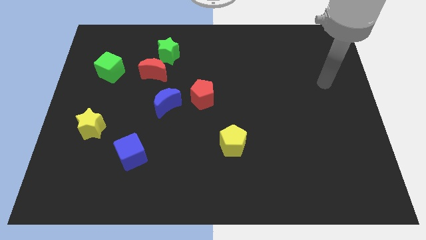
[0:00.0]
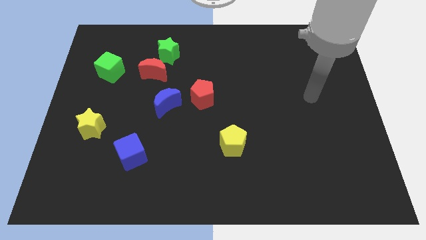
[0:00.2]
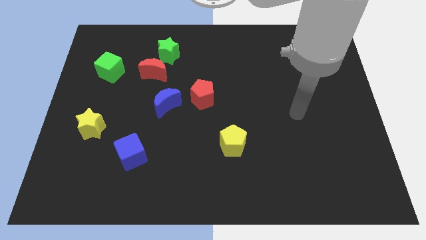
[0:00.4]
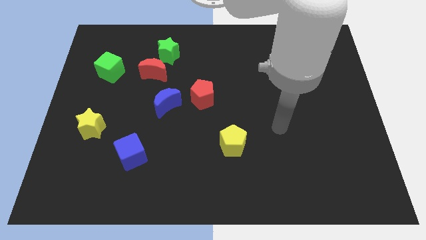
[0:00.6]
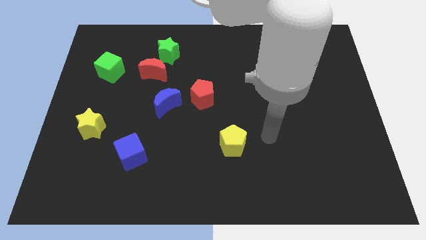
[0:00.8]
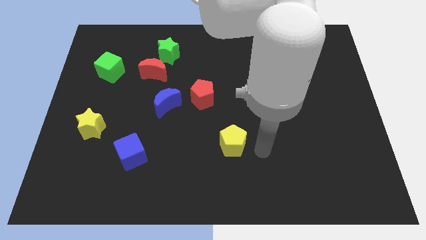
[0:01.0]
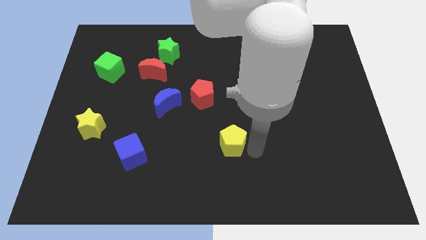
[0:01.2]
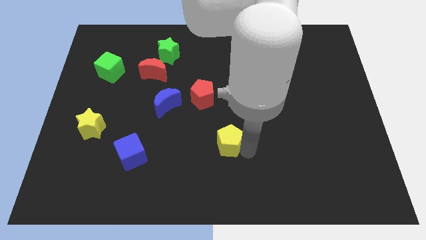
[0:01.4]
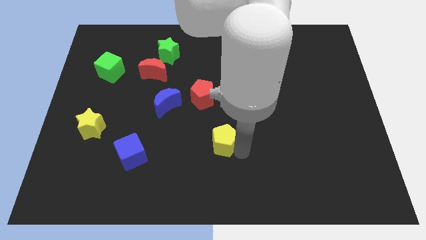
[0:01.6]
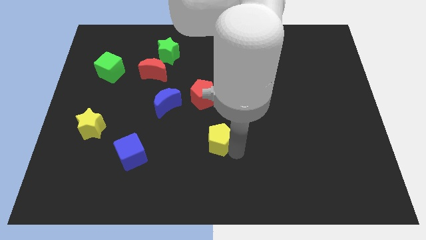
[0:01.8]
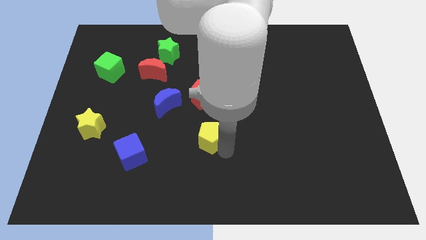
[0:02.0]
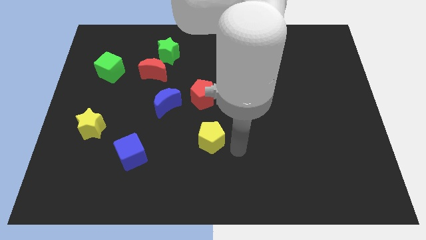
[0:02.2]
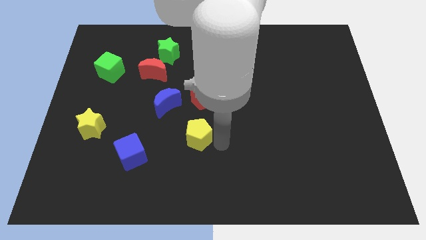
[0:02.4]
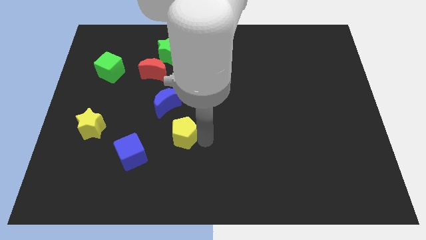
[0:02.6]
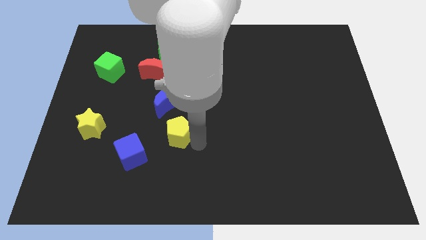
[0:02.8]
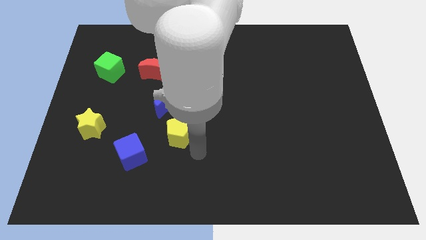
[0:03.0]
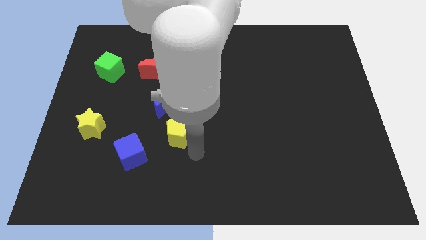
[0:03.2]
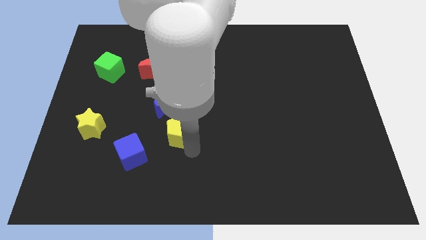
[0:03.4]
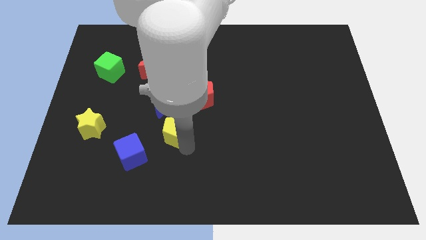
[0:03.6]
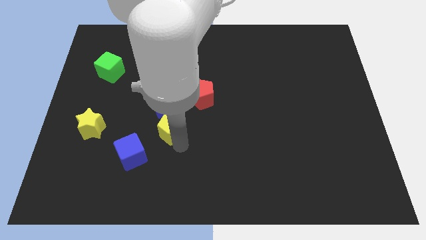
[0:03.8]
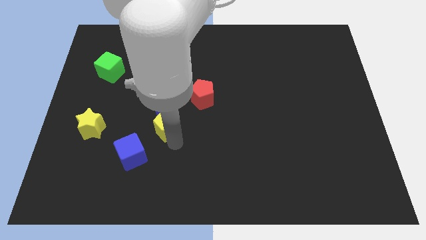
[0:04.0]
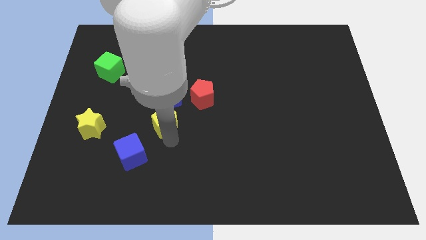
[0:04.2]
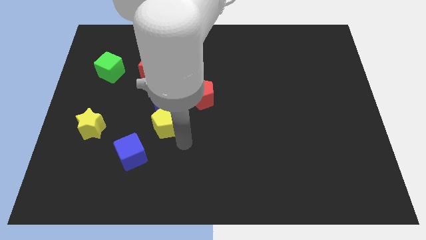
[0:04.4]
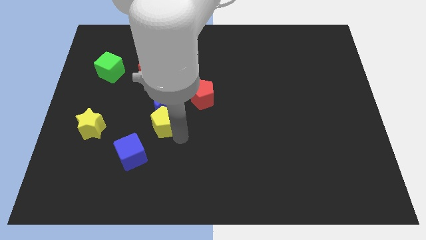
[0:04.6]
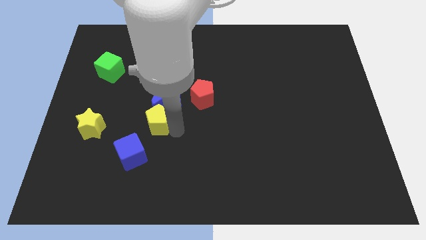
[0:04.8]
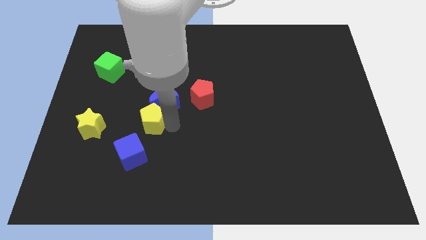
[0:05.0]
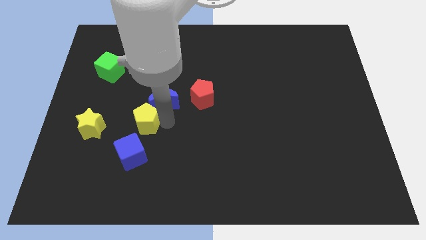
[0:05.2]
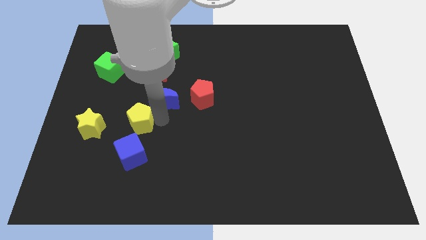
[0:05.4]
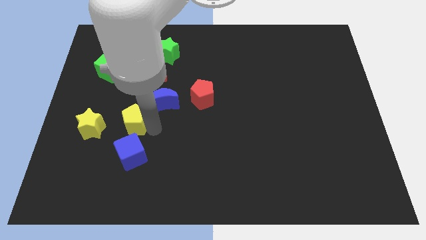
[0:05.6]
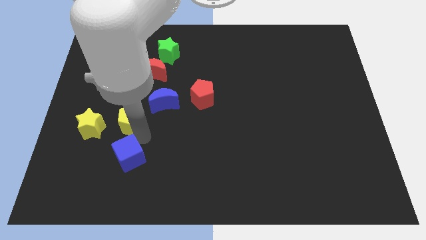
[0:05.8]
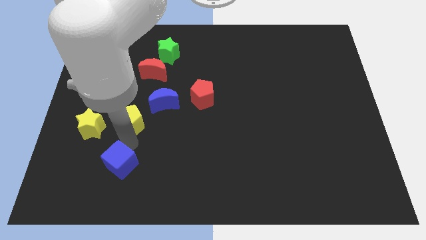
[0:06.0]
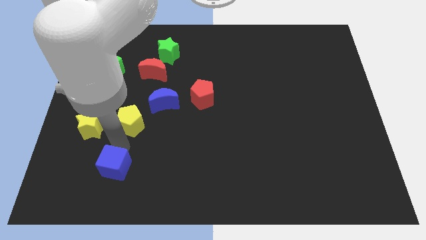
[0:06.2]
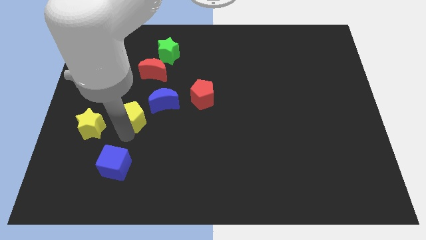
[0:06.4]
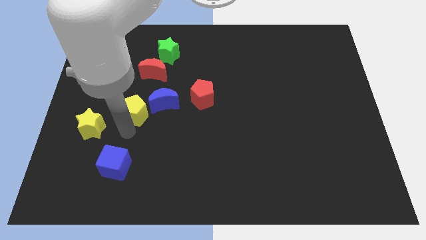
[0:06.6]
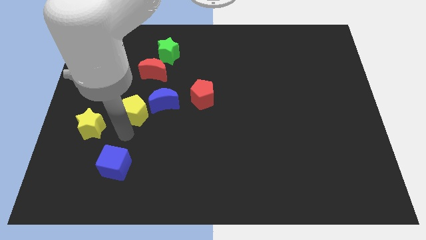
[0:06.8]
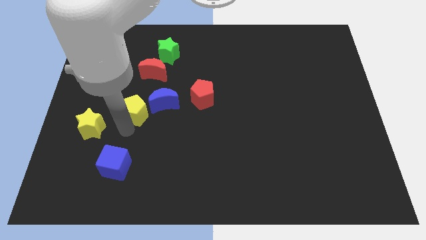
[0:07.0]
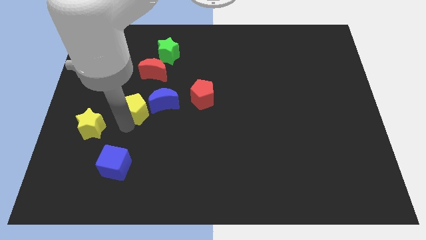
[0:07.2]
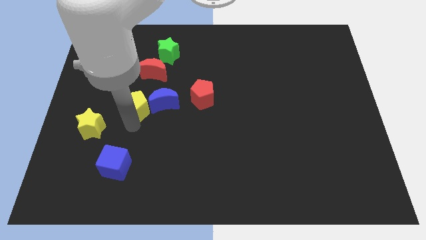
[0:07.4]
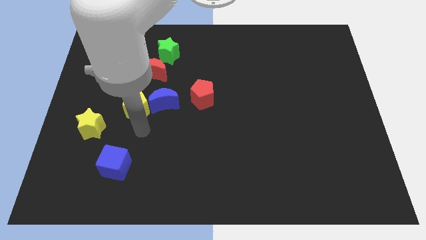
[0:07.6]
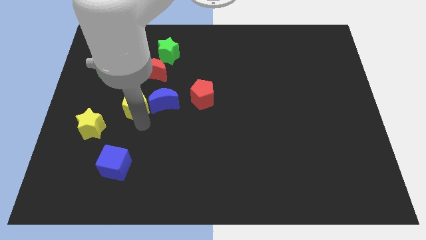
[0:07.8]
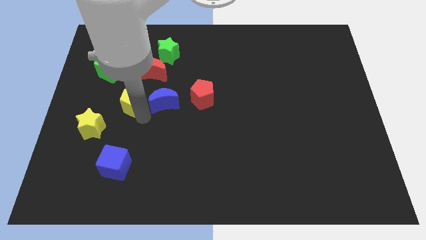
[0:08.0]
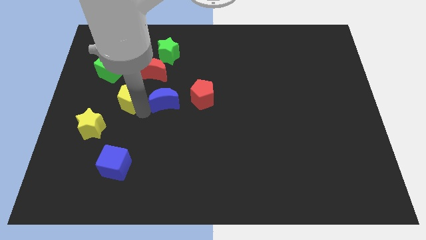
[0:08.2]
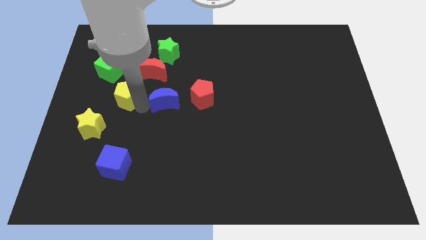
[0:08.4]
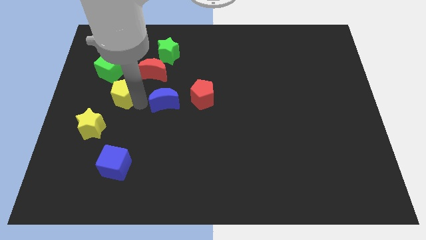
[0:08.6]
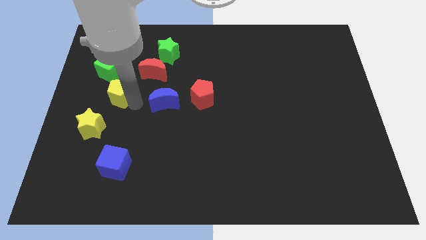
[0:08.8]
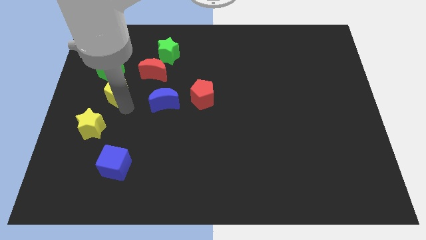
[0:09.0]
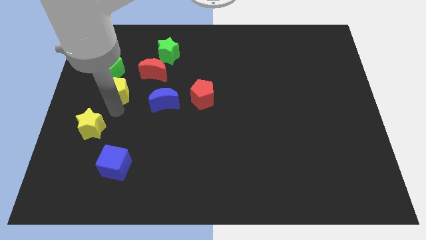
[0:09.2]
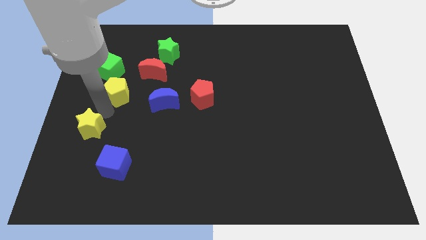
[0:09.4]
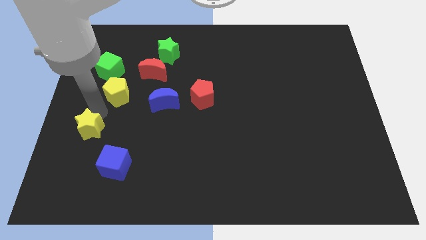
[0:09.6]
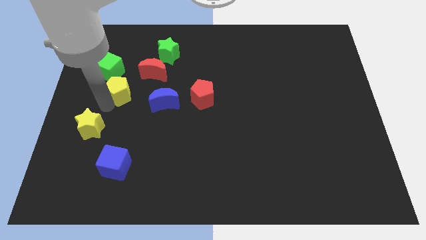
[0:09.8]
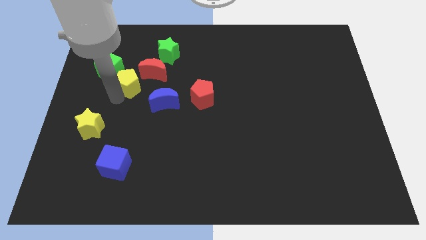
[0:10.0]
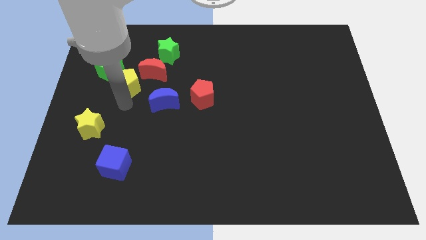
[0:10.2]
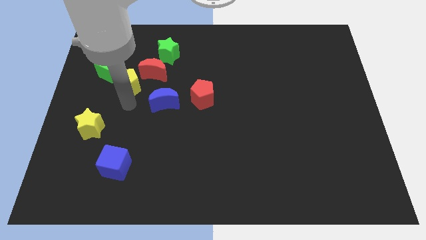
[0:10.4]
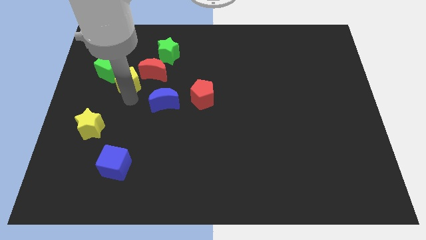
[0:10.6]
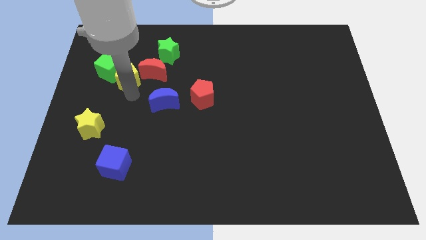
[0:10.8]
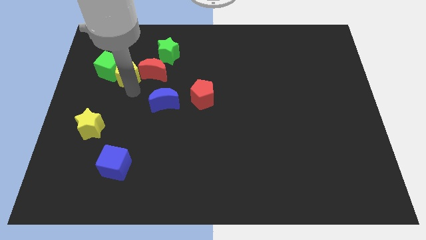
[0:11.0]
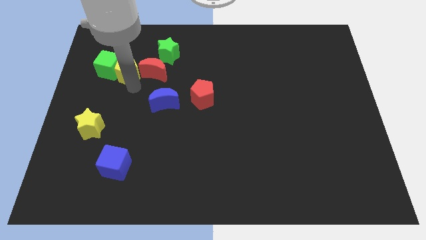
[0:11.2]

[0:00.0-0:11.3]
push the yellow pentagon to the top right side of the green cube

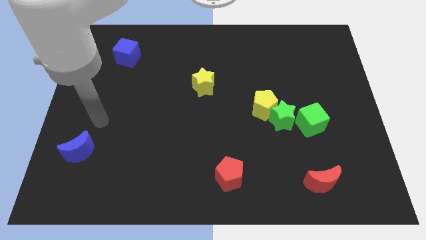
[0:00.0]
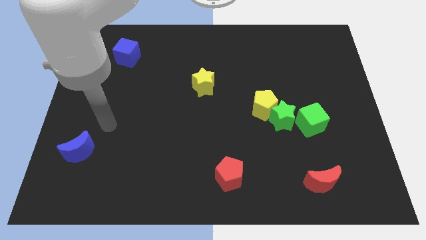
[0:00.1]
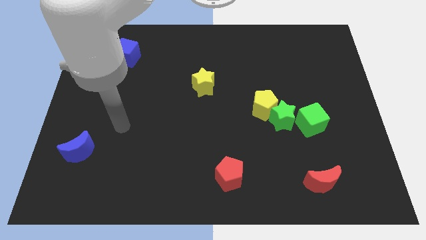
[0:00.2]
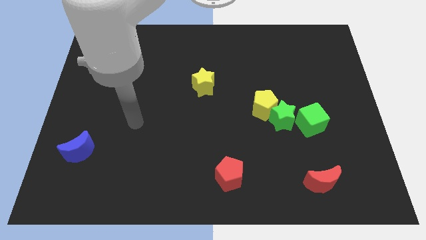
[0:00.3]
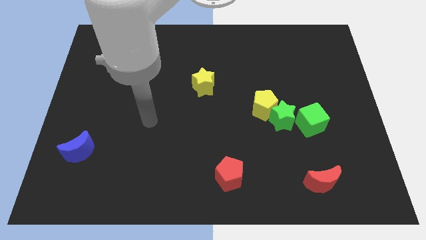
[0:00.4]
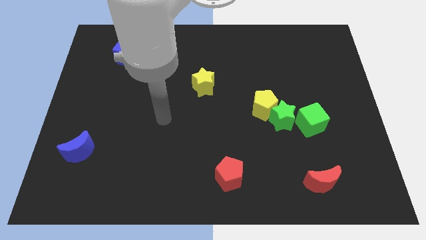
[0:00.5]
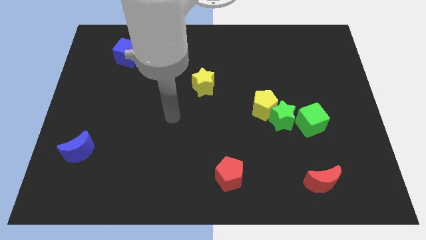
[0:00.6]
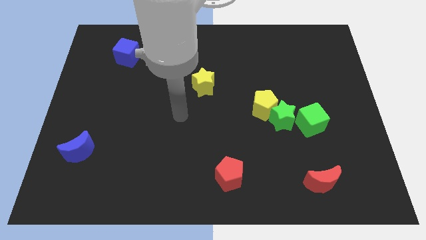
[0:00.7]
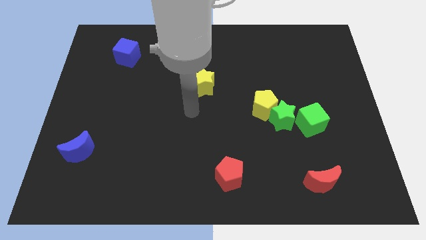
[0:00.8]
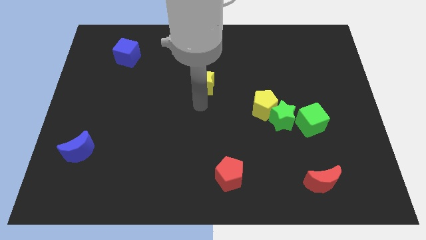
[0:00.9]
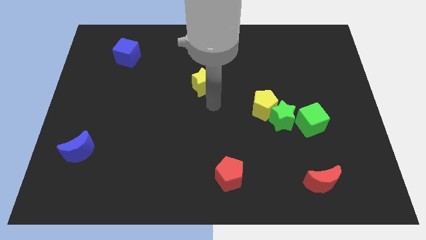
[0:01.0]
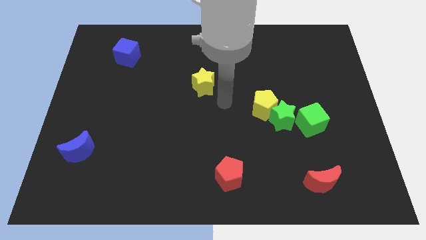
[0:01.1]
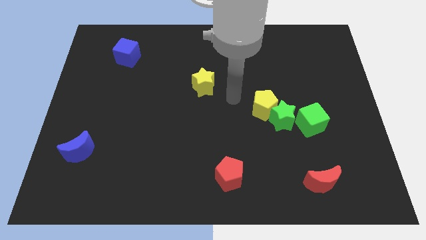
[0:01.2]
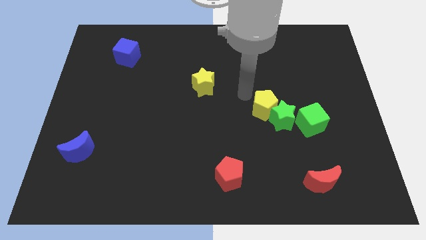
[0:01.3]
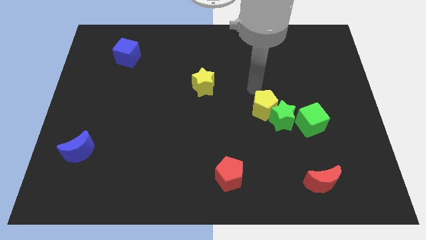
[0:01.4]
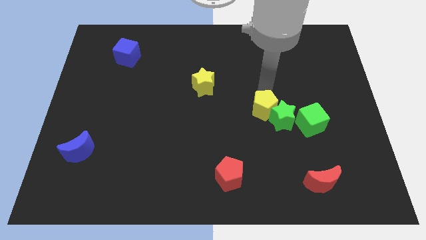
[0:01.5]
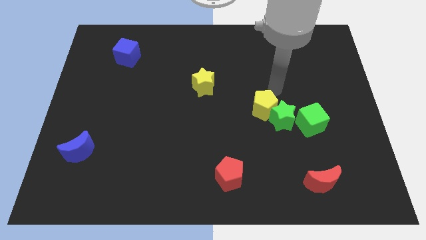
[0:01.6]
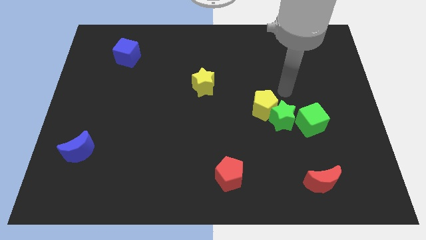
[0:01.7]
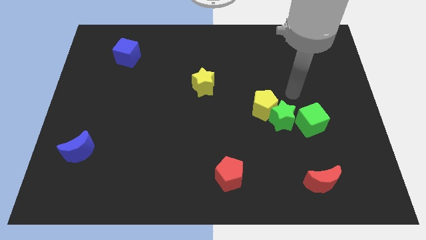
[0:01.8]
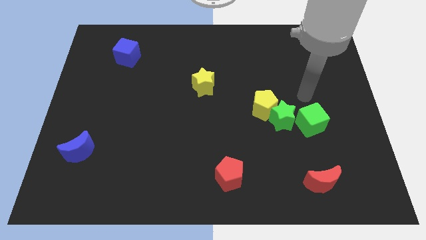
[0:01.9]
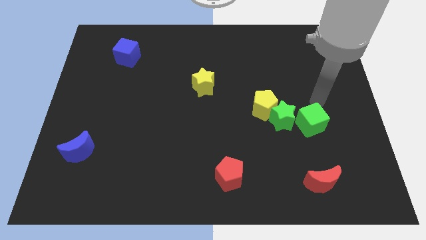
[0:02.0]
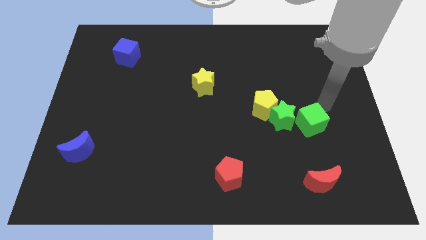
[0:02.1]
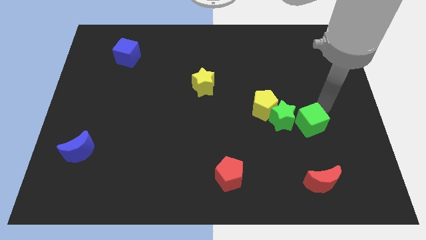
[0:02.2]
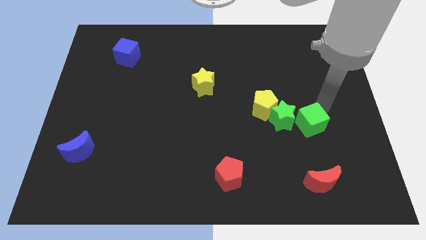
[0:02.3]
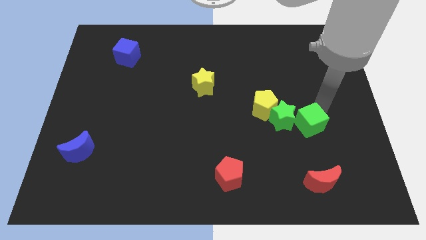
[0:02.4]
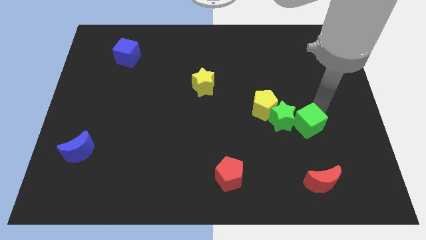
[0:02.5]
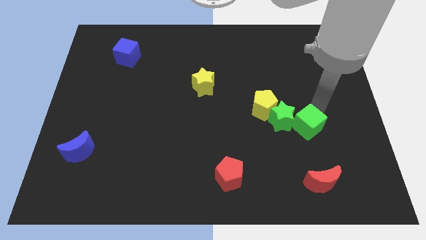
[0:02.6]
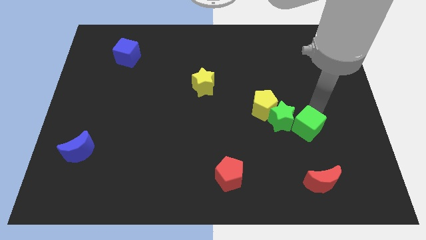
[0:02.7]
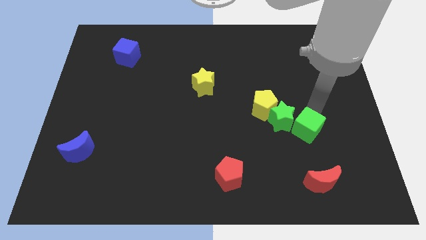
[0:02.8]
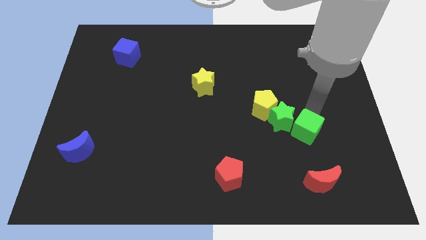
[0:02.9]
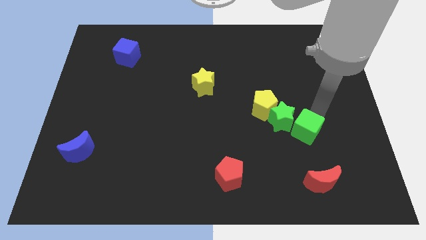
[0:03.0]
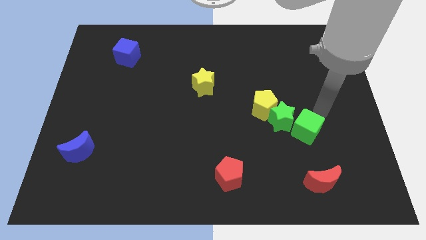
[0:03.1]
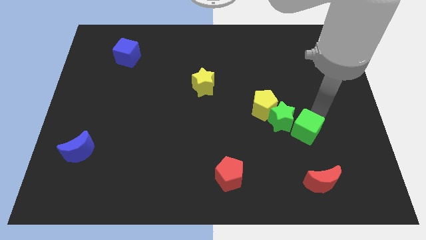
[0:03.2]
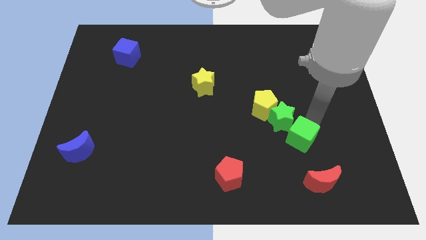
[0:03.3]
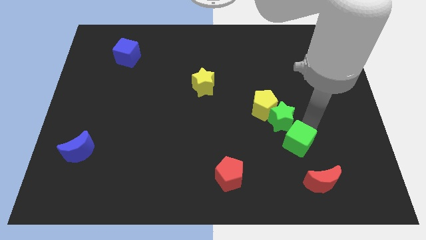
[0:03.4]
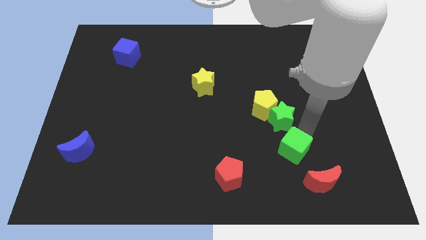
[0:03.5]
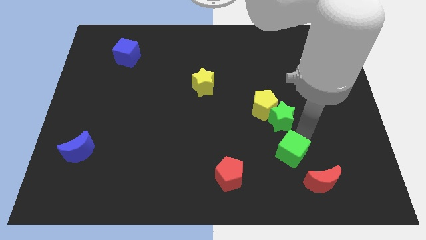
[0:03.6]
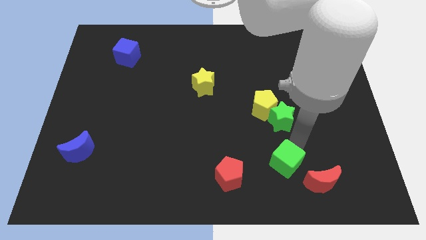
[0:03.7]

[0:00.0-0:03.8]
slide the green cube to the left of the red moon
